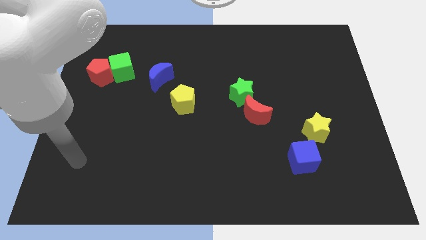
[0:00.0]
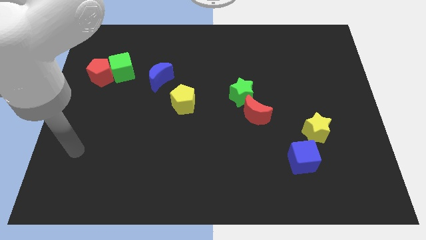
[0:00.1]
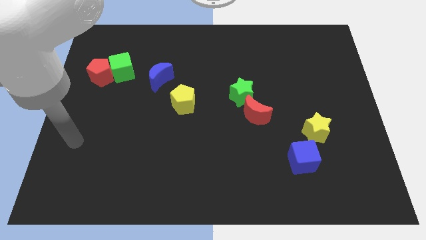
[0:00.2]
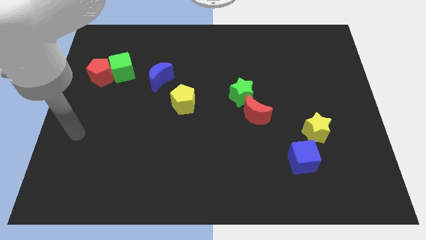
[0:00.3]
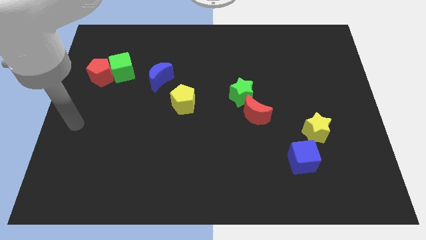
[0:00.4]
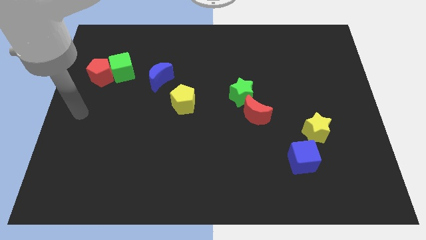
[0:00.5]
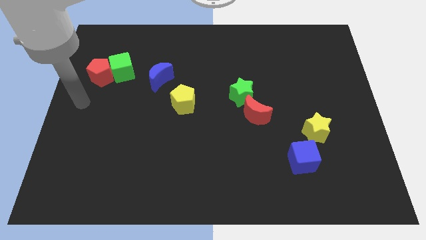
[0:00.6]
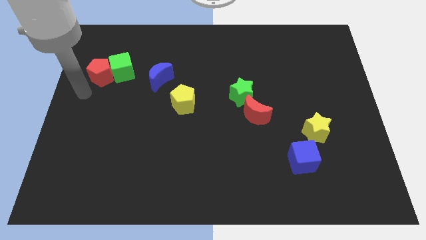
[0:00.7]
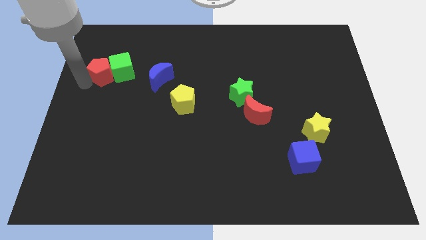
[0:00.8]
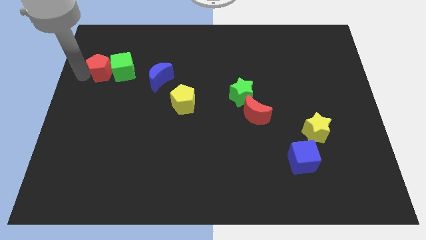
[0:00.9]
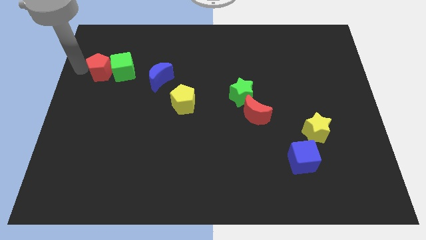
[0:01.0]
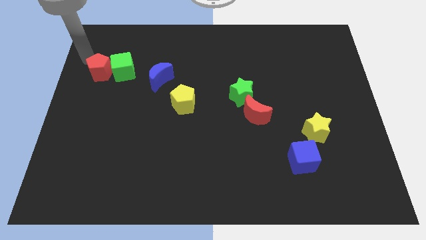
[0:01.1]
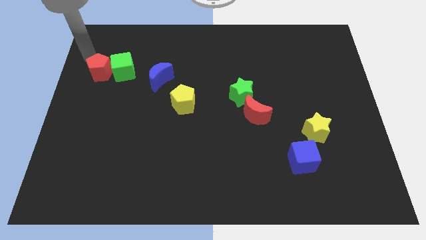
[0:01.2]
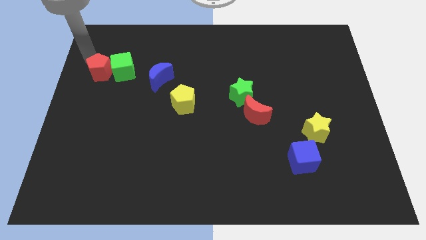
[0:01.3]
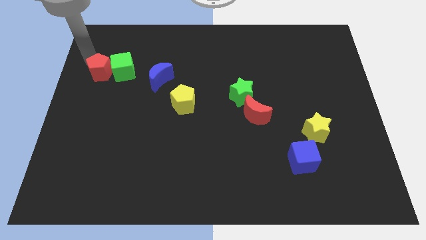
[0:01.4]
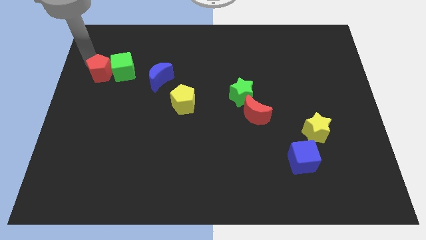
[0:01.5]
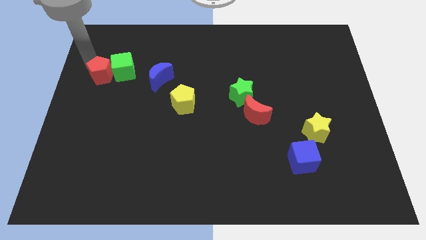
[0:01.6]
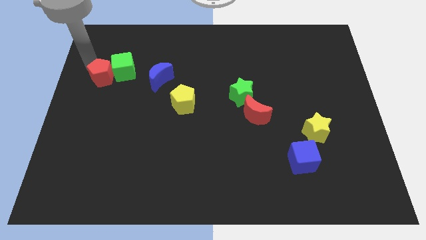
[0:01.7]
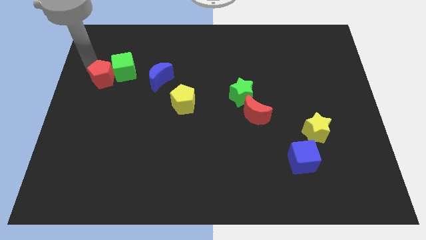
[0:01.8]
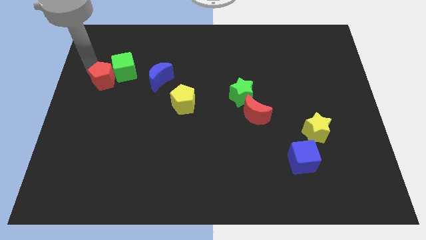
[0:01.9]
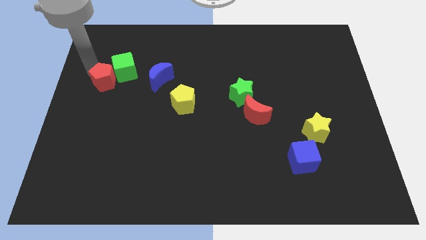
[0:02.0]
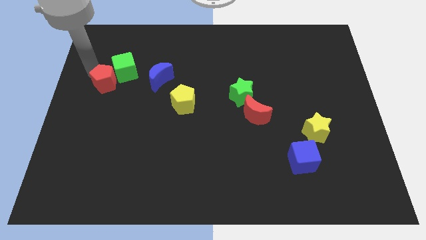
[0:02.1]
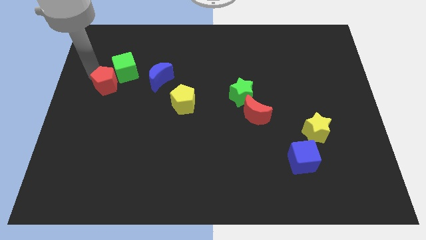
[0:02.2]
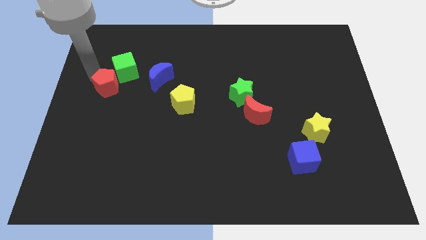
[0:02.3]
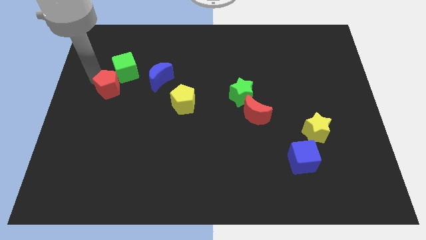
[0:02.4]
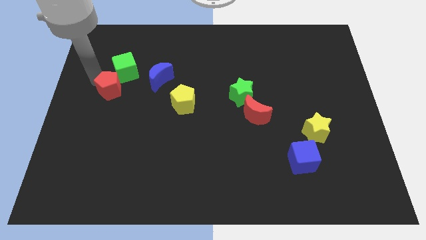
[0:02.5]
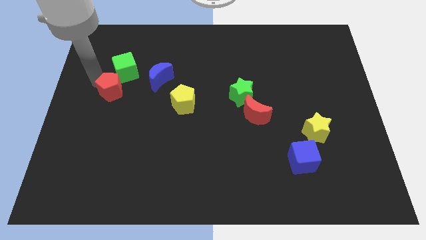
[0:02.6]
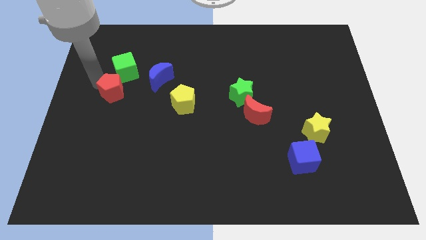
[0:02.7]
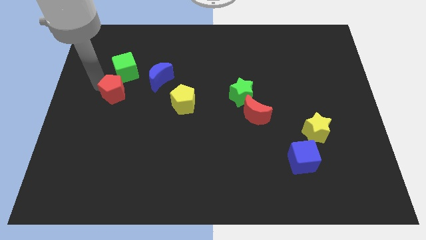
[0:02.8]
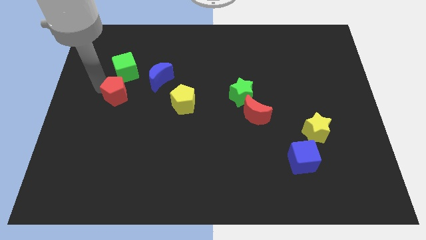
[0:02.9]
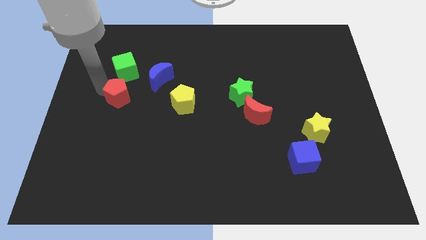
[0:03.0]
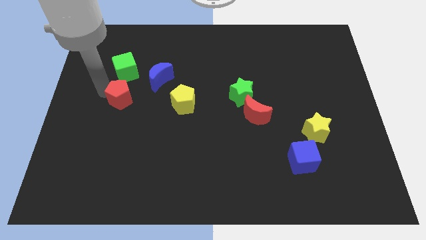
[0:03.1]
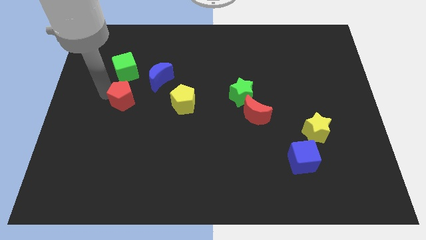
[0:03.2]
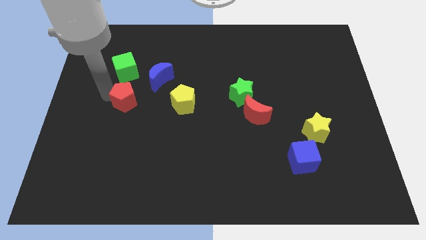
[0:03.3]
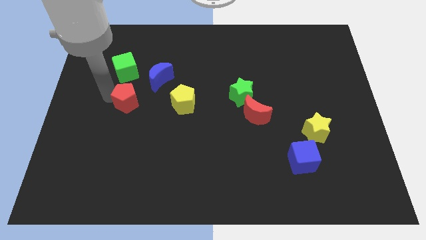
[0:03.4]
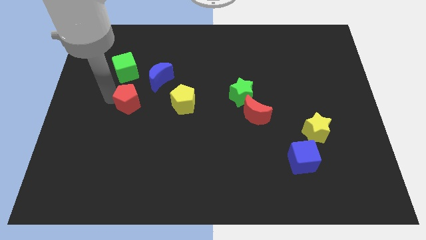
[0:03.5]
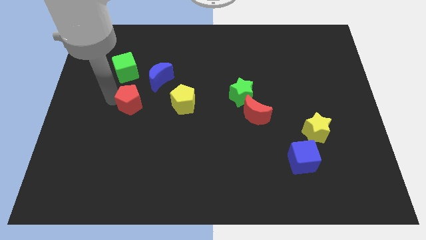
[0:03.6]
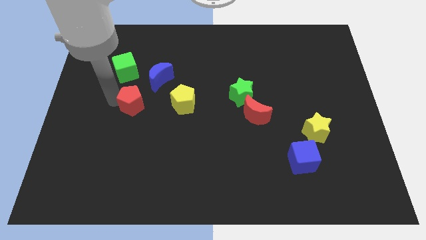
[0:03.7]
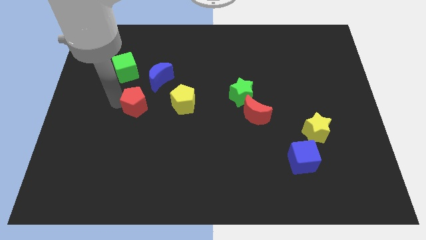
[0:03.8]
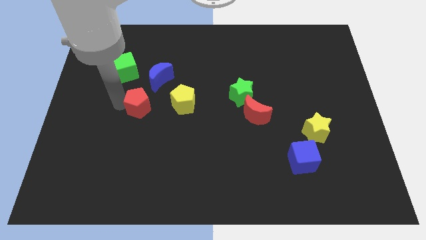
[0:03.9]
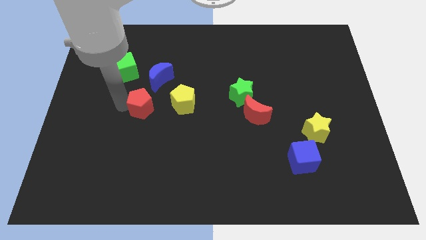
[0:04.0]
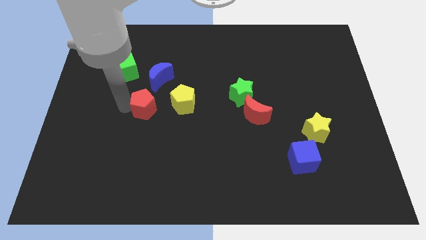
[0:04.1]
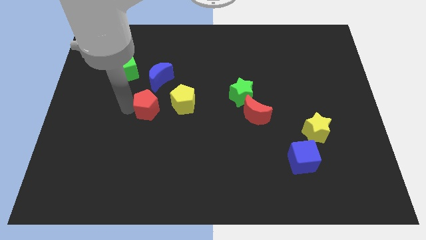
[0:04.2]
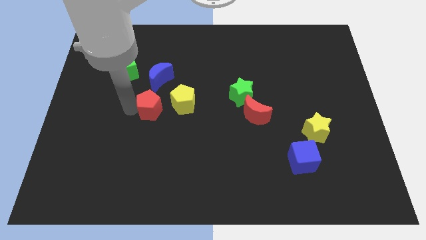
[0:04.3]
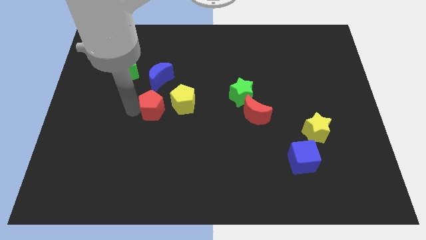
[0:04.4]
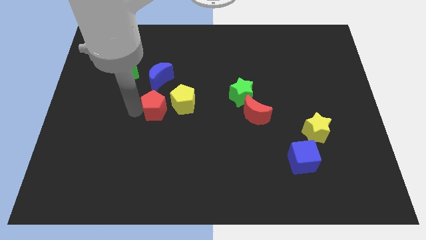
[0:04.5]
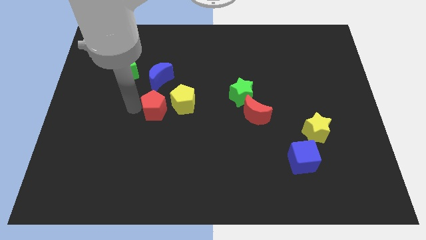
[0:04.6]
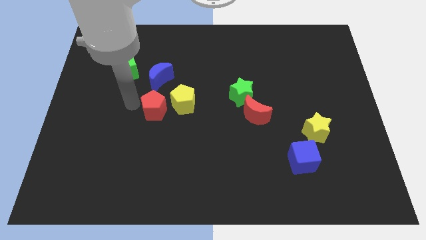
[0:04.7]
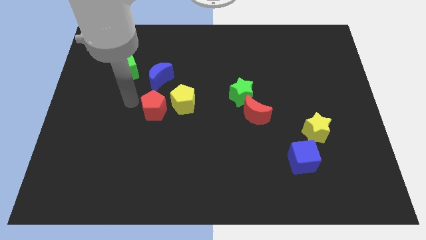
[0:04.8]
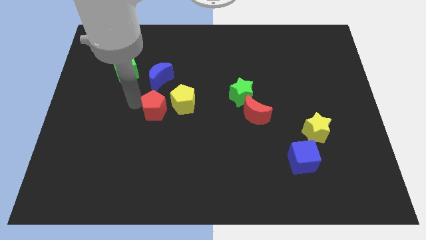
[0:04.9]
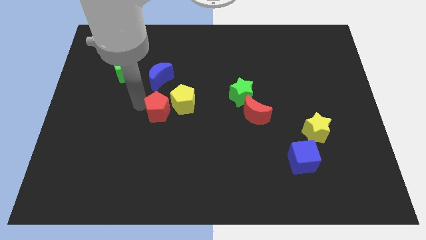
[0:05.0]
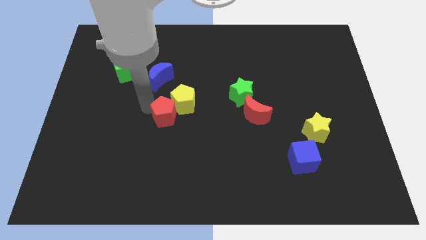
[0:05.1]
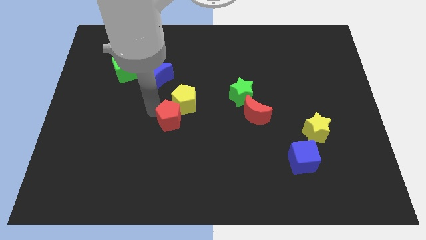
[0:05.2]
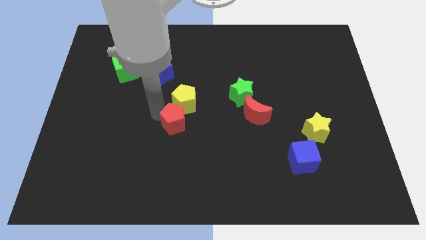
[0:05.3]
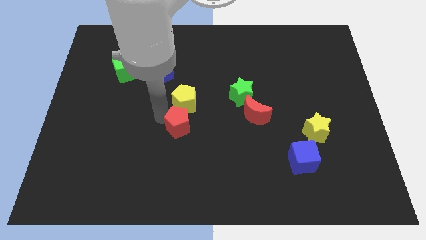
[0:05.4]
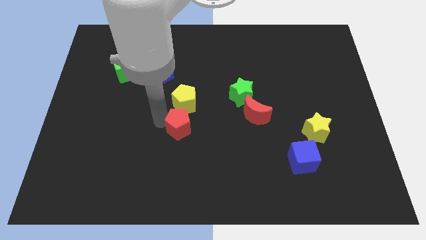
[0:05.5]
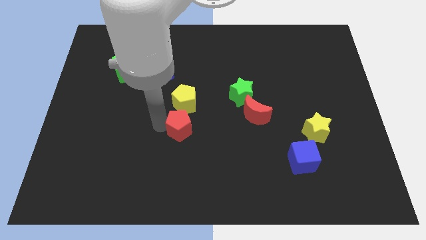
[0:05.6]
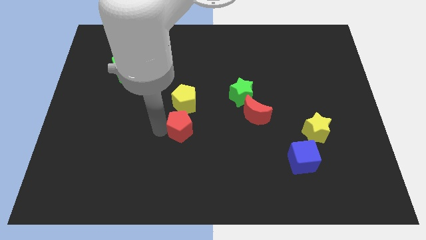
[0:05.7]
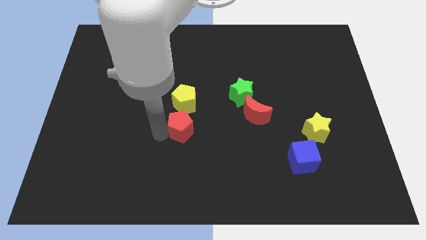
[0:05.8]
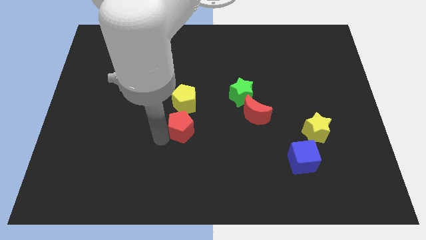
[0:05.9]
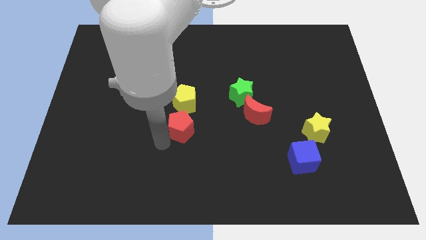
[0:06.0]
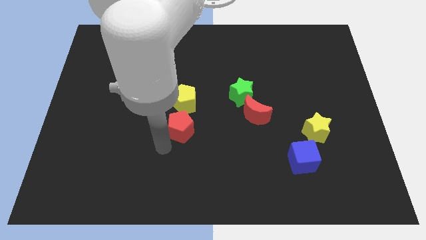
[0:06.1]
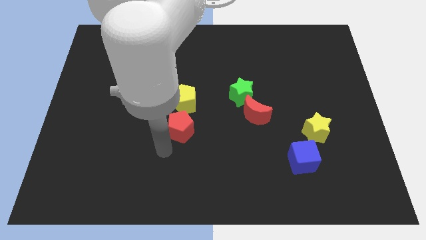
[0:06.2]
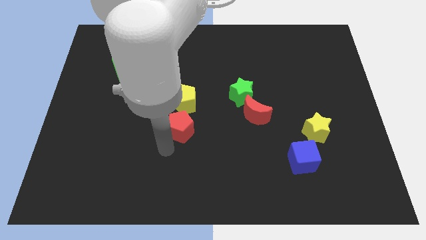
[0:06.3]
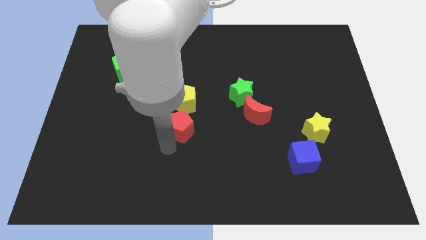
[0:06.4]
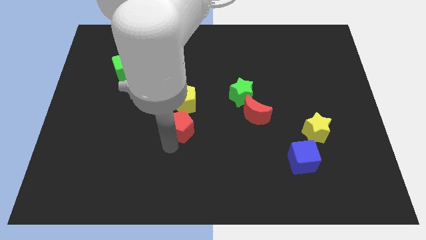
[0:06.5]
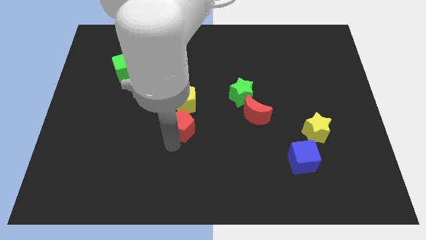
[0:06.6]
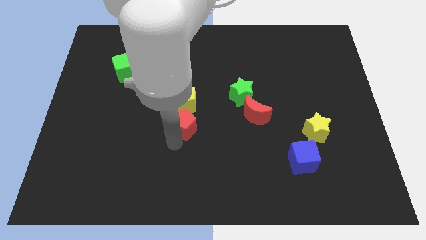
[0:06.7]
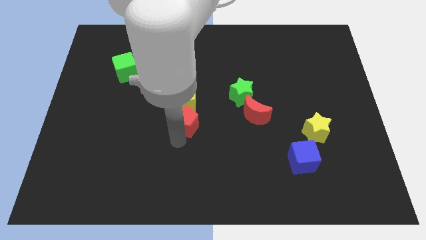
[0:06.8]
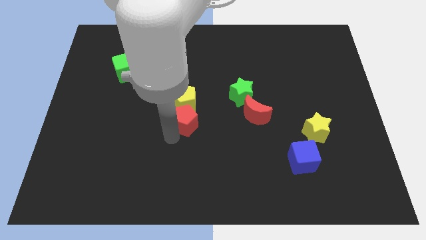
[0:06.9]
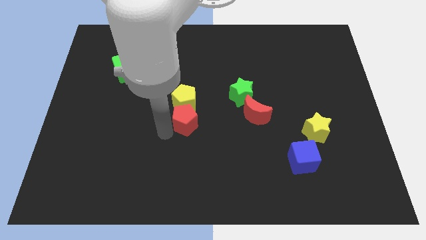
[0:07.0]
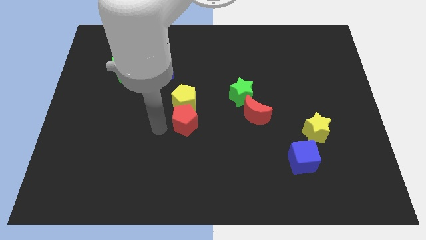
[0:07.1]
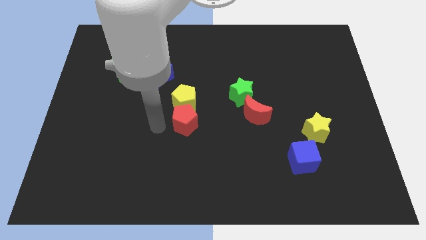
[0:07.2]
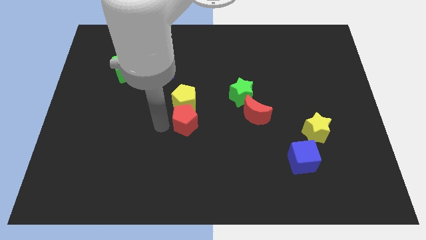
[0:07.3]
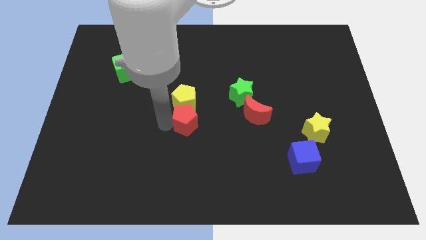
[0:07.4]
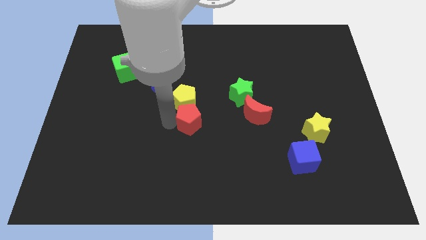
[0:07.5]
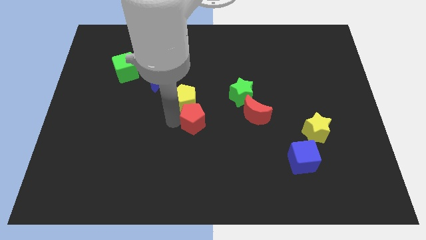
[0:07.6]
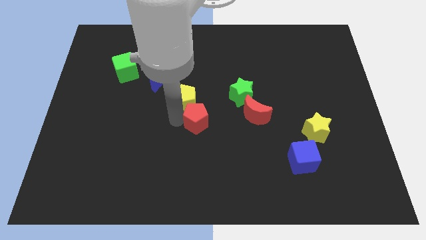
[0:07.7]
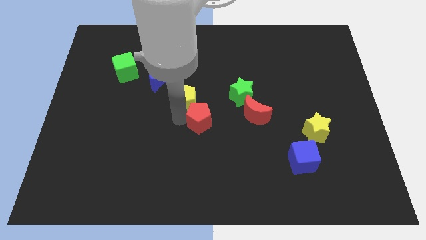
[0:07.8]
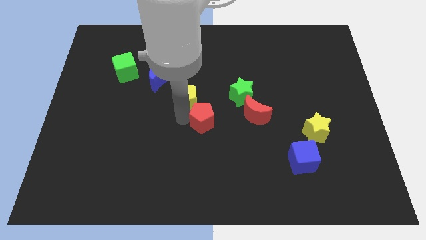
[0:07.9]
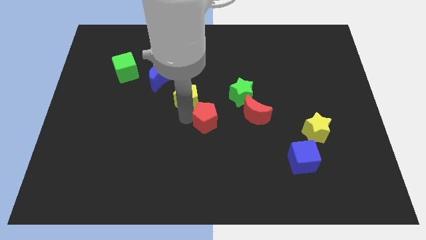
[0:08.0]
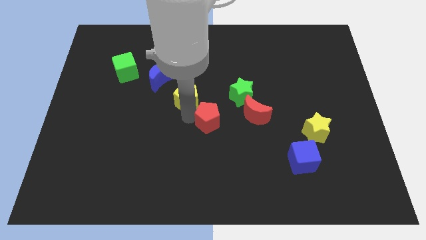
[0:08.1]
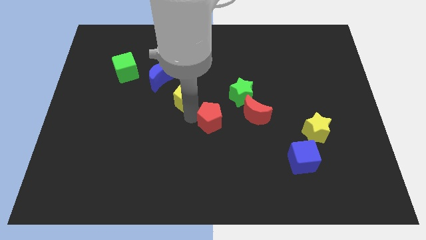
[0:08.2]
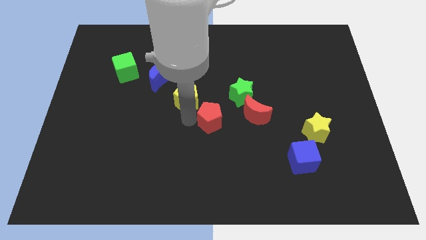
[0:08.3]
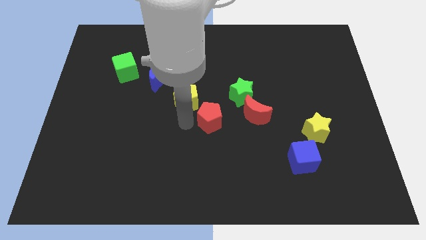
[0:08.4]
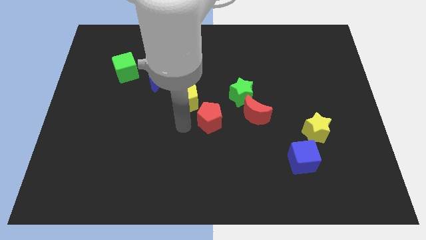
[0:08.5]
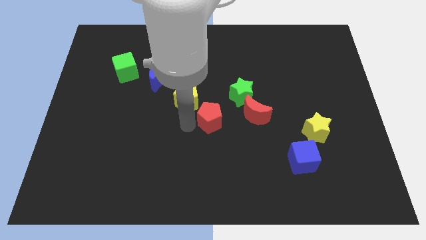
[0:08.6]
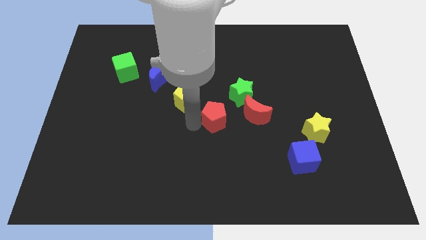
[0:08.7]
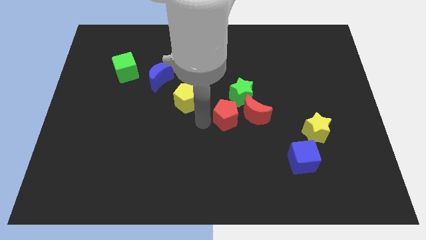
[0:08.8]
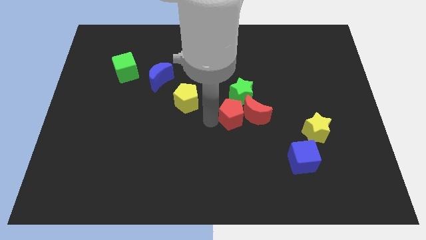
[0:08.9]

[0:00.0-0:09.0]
move the red pentagon to the red moon
